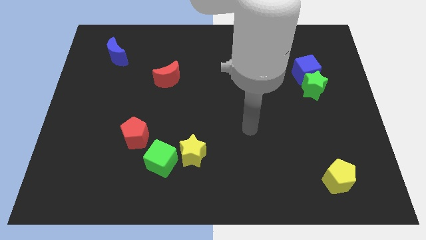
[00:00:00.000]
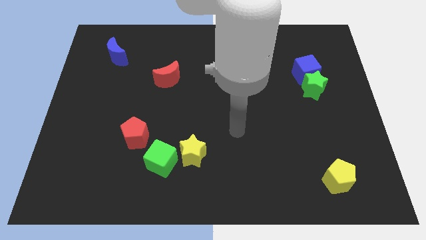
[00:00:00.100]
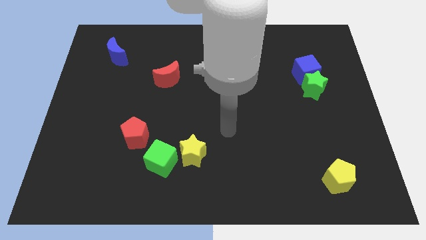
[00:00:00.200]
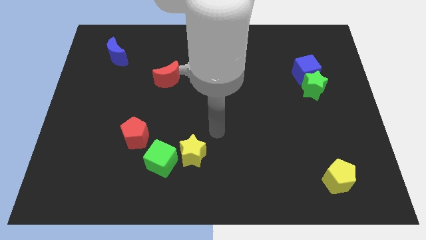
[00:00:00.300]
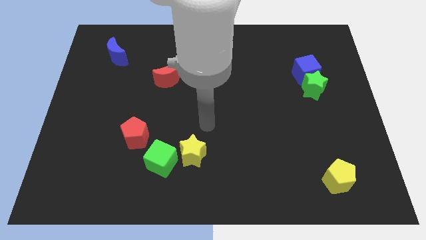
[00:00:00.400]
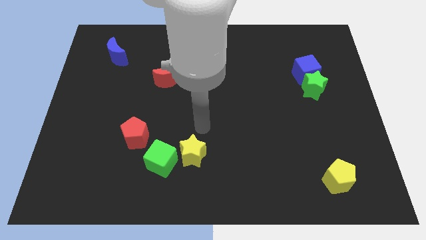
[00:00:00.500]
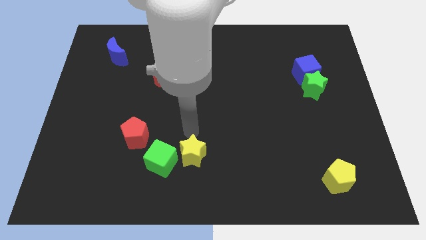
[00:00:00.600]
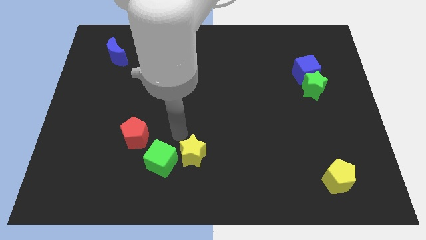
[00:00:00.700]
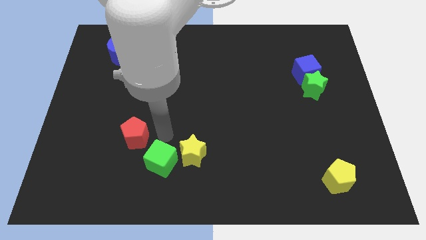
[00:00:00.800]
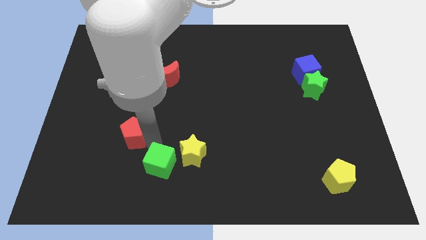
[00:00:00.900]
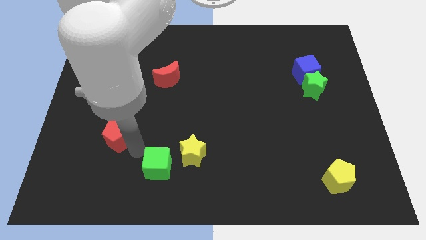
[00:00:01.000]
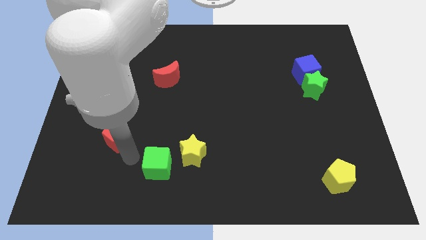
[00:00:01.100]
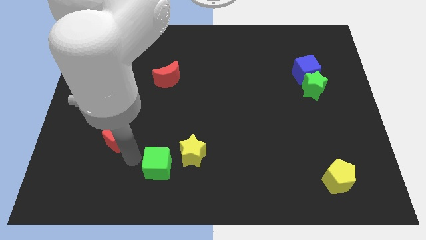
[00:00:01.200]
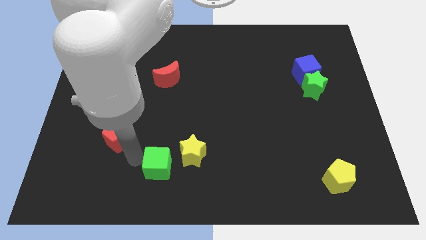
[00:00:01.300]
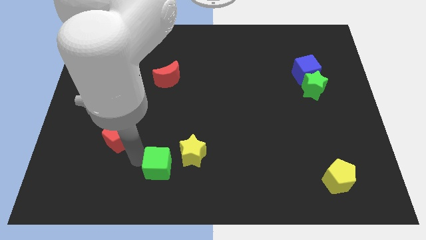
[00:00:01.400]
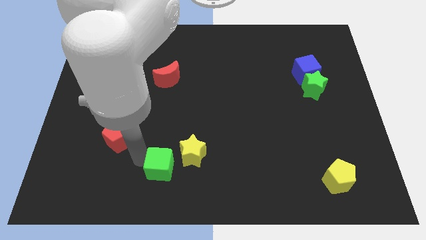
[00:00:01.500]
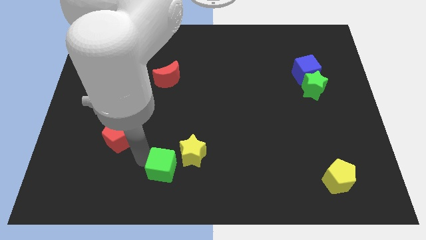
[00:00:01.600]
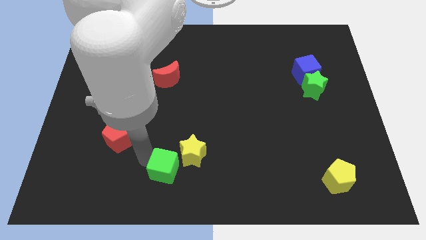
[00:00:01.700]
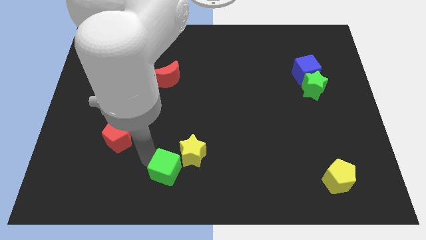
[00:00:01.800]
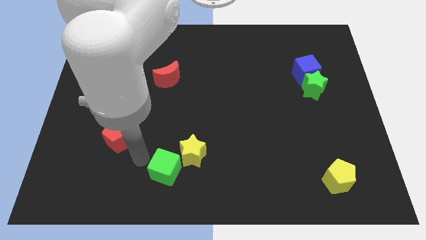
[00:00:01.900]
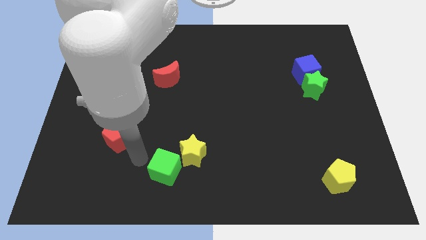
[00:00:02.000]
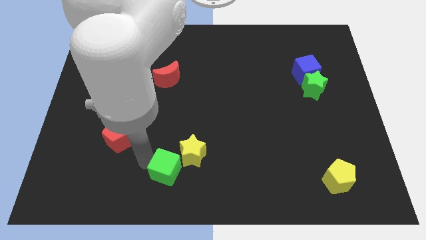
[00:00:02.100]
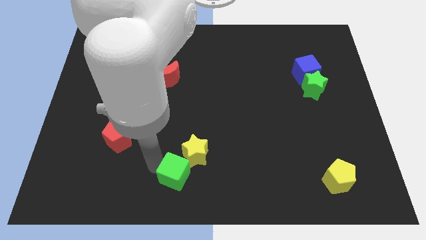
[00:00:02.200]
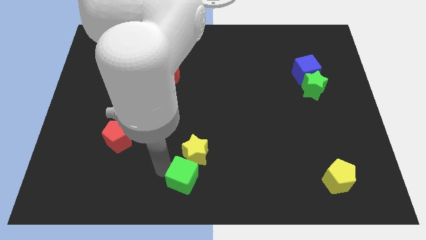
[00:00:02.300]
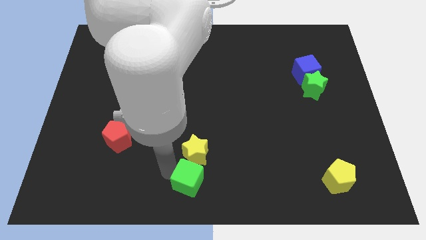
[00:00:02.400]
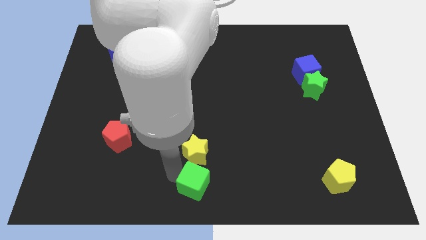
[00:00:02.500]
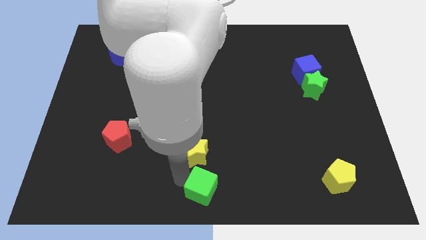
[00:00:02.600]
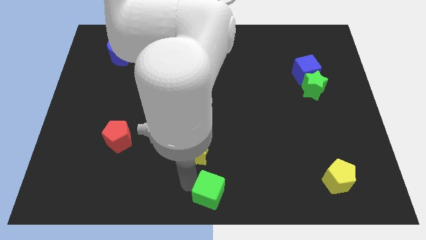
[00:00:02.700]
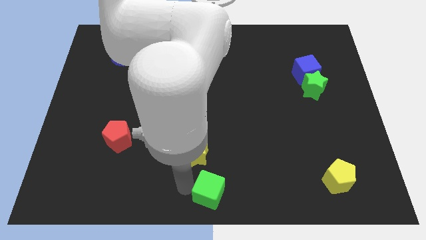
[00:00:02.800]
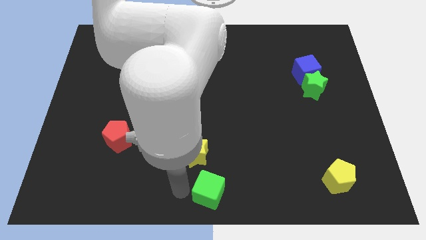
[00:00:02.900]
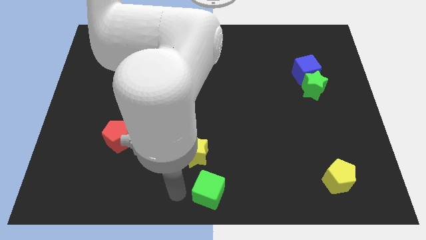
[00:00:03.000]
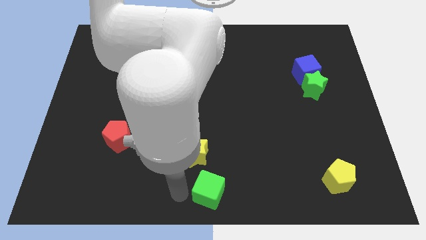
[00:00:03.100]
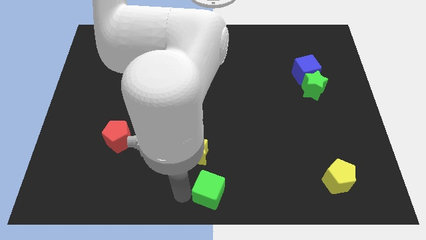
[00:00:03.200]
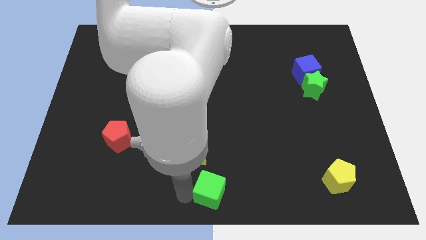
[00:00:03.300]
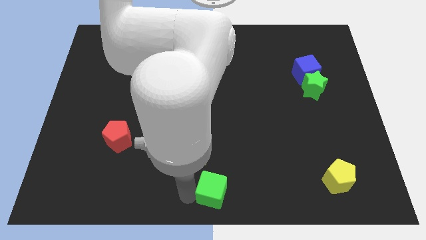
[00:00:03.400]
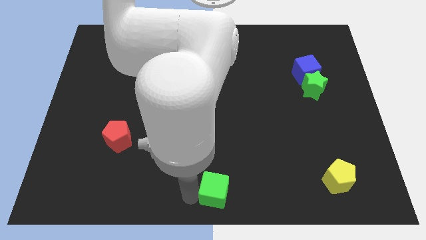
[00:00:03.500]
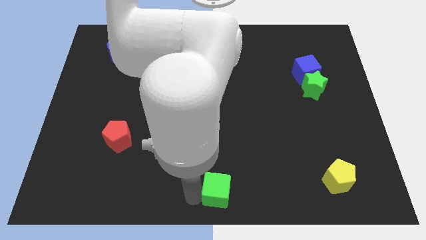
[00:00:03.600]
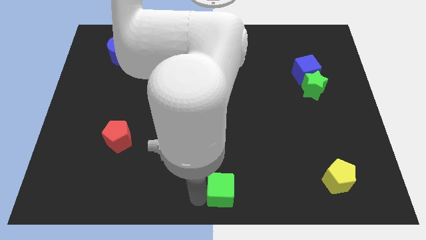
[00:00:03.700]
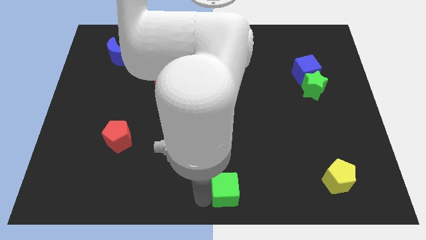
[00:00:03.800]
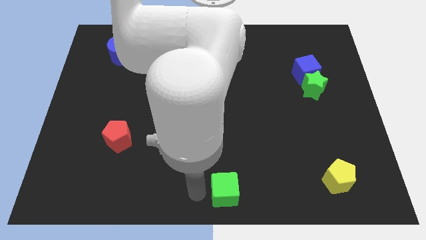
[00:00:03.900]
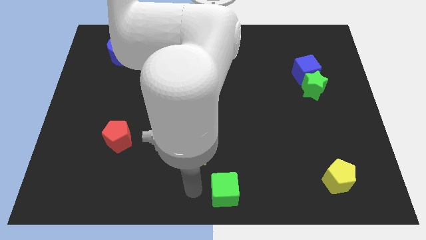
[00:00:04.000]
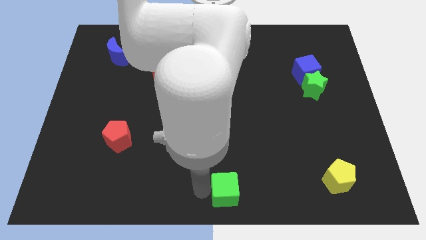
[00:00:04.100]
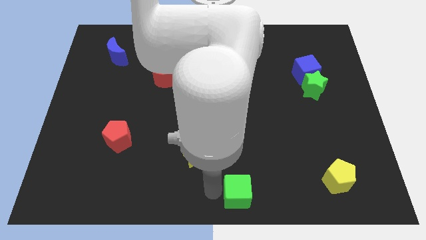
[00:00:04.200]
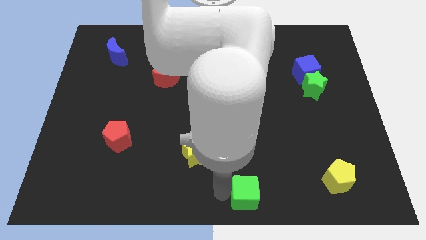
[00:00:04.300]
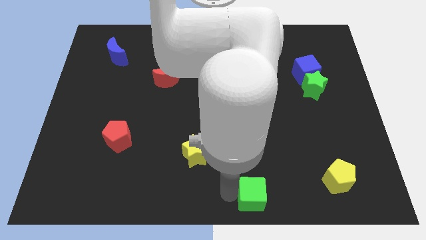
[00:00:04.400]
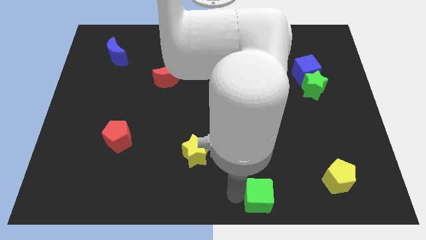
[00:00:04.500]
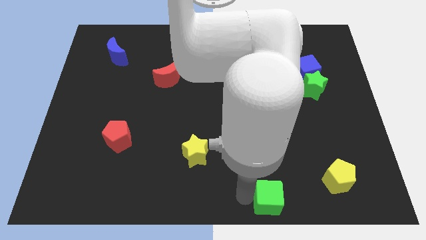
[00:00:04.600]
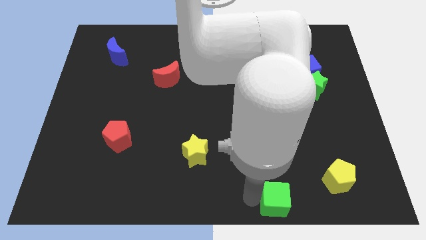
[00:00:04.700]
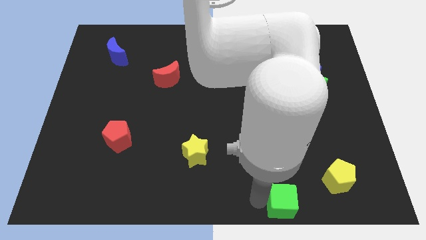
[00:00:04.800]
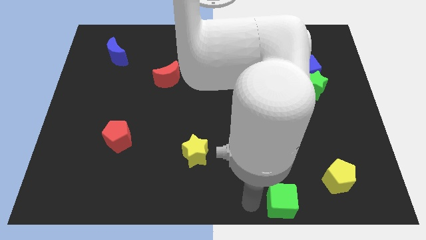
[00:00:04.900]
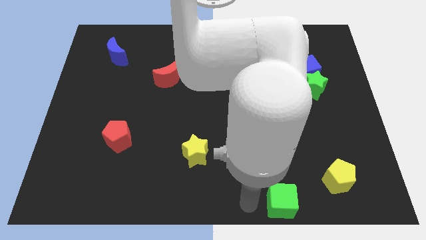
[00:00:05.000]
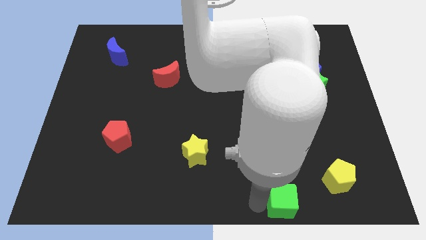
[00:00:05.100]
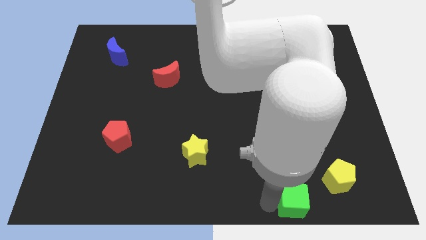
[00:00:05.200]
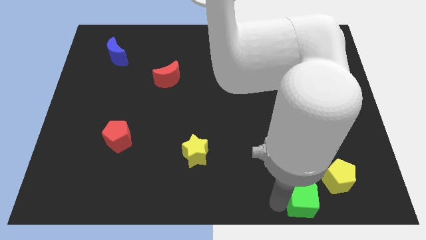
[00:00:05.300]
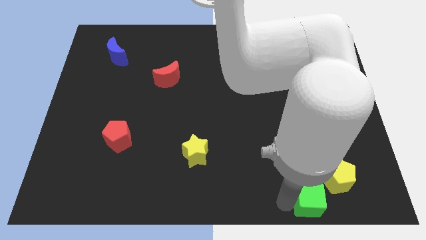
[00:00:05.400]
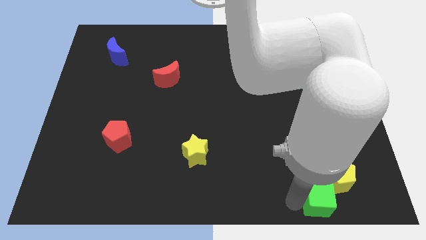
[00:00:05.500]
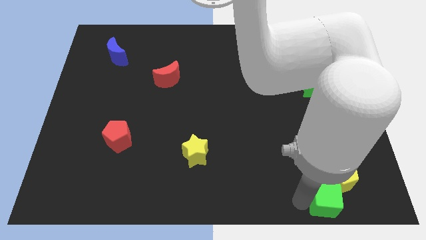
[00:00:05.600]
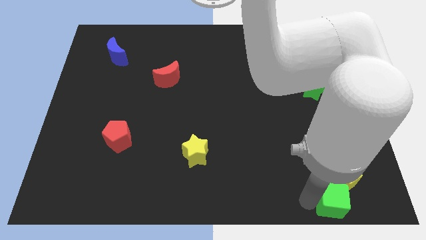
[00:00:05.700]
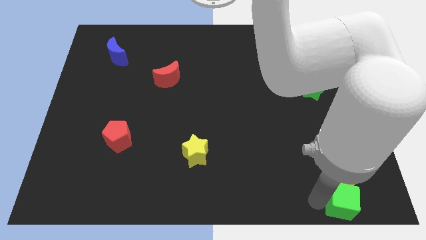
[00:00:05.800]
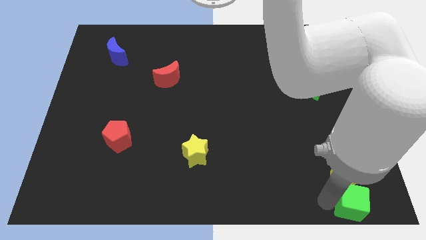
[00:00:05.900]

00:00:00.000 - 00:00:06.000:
put the green cube to the lower right corner
